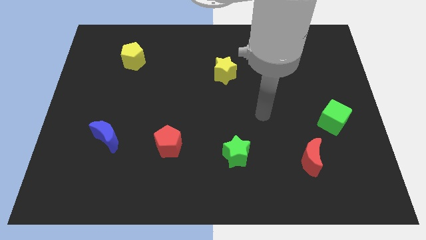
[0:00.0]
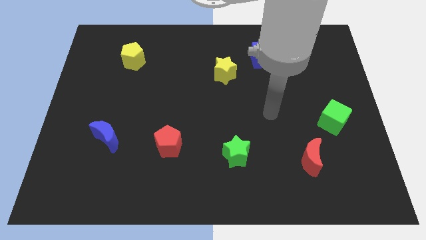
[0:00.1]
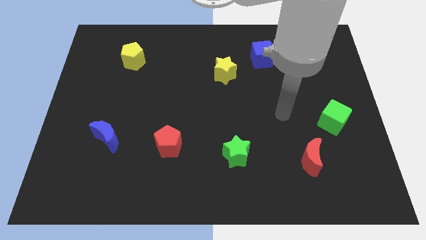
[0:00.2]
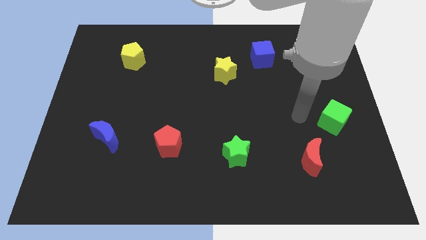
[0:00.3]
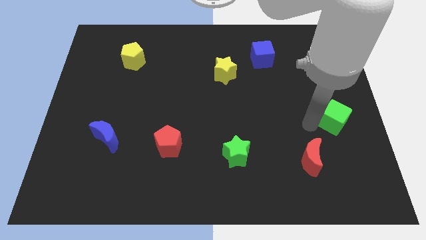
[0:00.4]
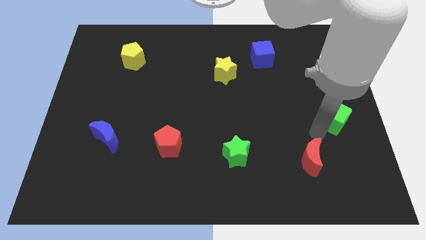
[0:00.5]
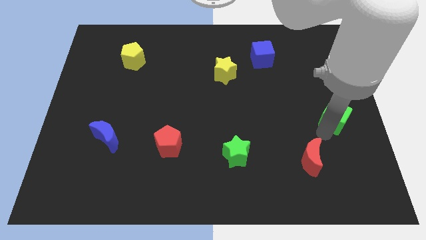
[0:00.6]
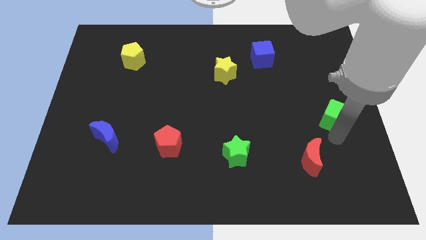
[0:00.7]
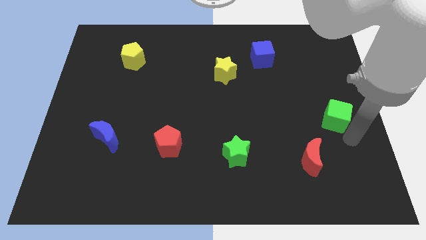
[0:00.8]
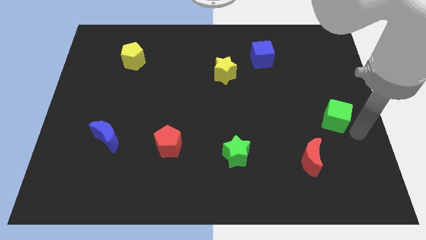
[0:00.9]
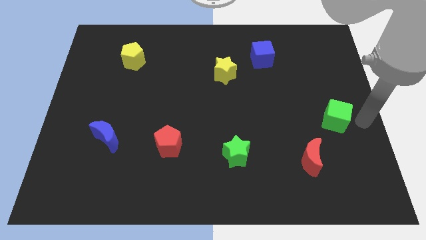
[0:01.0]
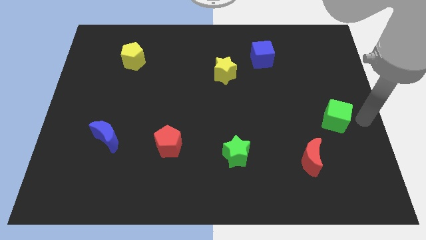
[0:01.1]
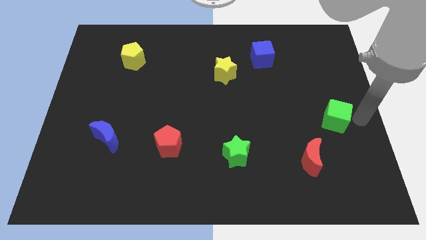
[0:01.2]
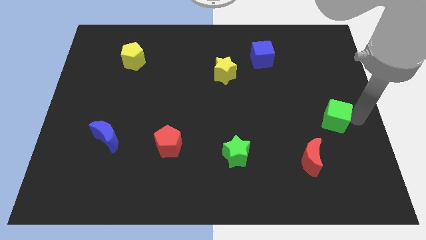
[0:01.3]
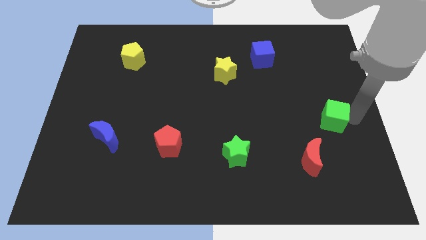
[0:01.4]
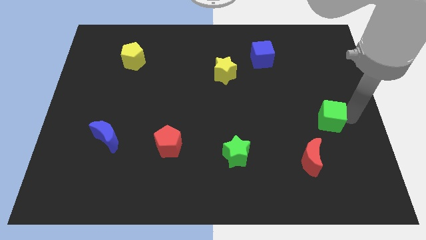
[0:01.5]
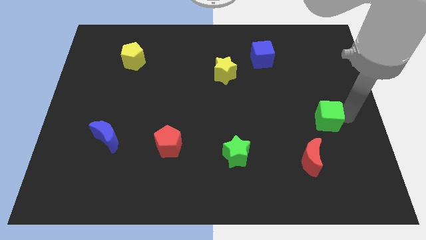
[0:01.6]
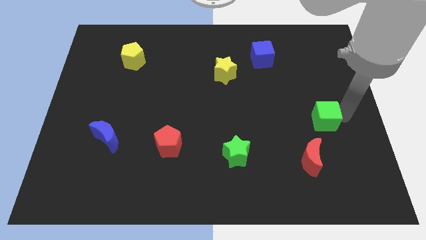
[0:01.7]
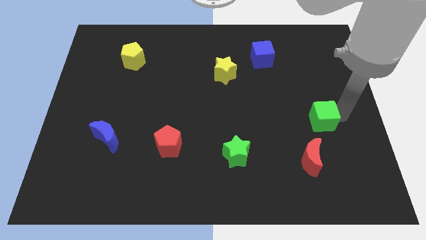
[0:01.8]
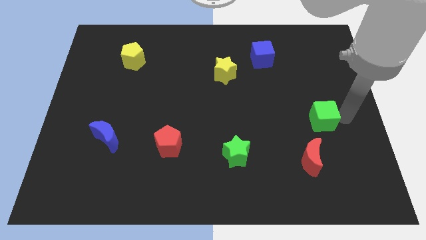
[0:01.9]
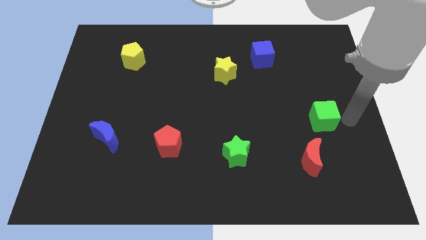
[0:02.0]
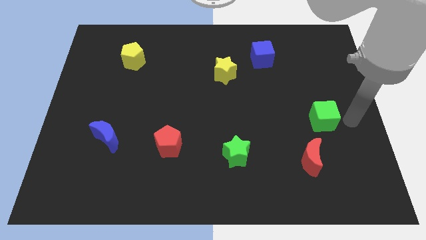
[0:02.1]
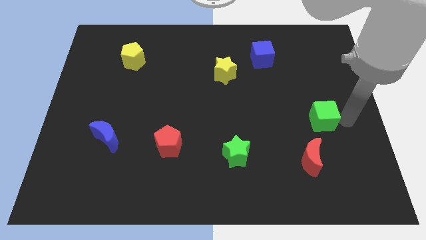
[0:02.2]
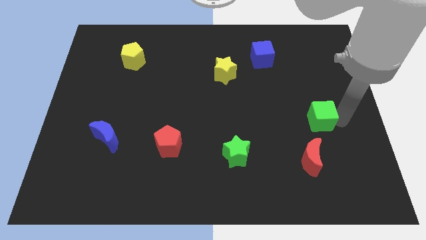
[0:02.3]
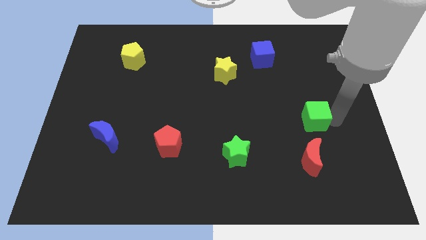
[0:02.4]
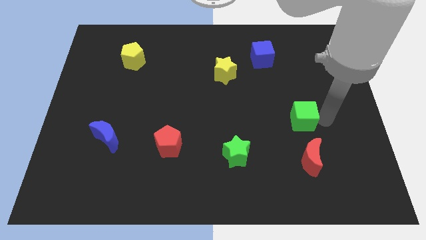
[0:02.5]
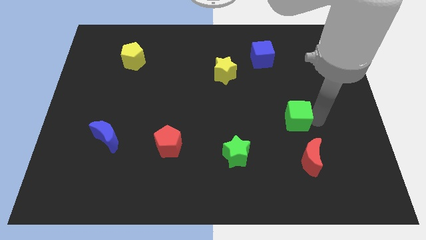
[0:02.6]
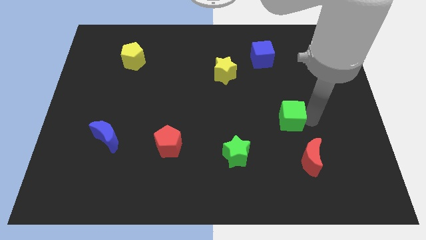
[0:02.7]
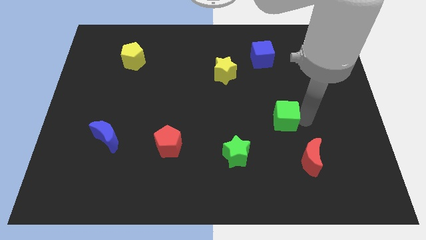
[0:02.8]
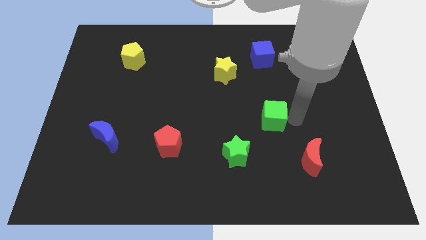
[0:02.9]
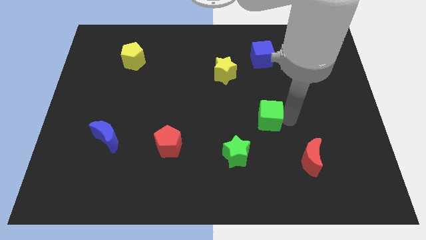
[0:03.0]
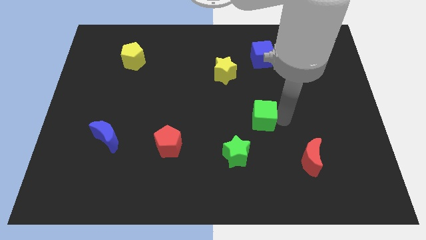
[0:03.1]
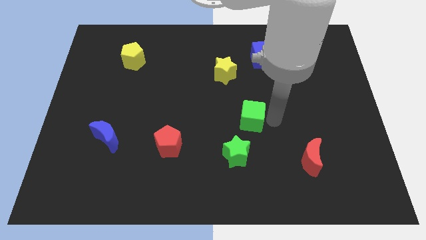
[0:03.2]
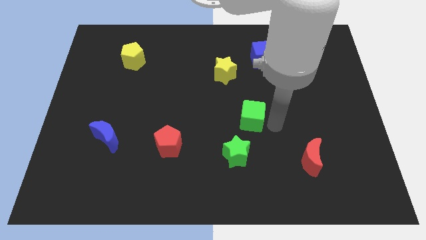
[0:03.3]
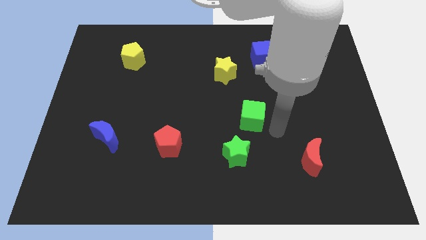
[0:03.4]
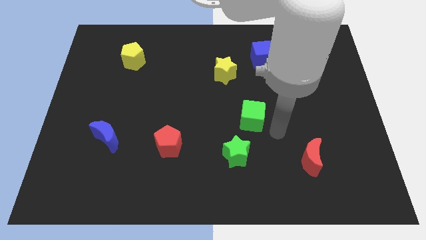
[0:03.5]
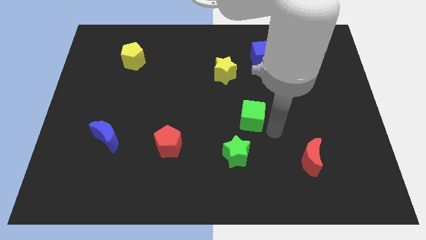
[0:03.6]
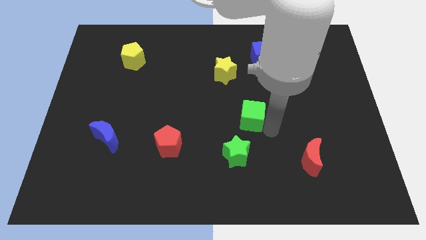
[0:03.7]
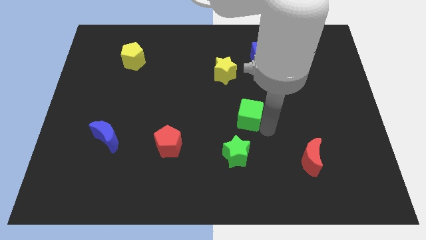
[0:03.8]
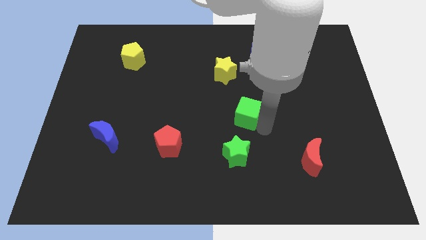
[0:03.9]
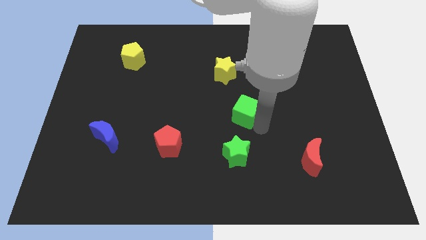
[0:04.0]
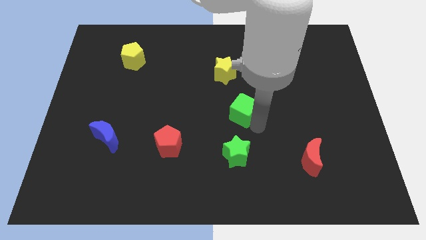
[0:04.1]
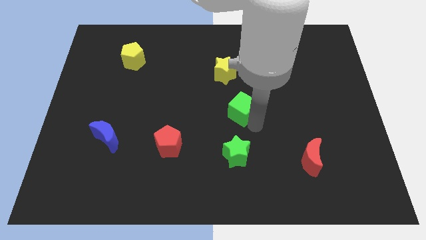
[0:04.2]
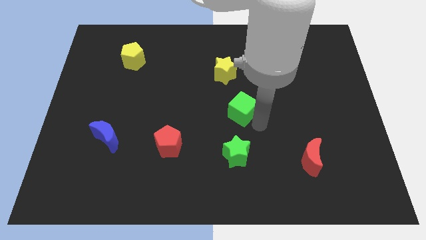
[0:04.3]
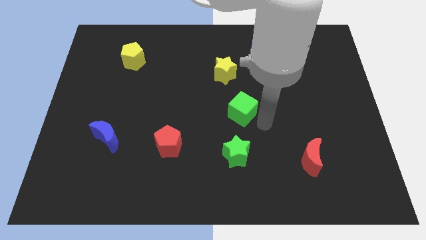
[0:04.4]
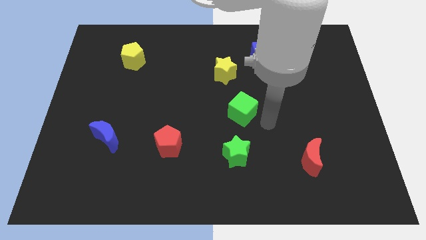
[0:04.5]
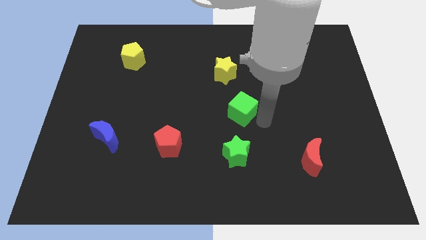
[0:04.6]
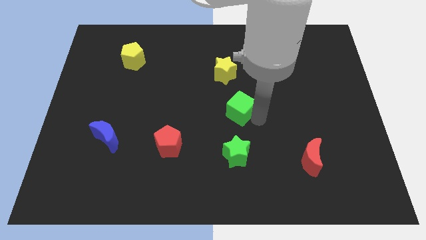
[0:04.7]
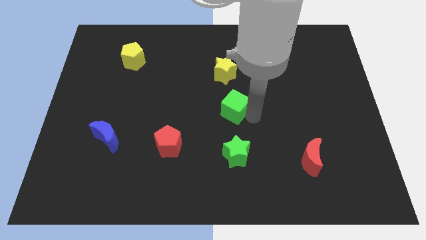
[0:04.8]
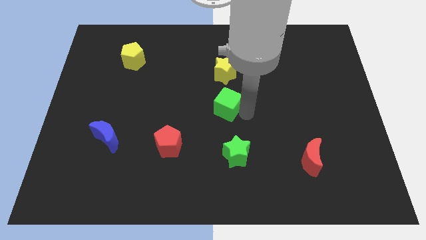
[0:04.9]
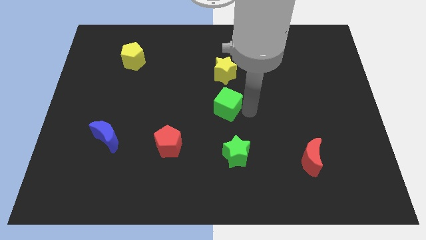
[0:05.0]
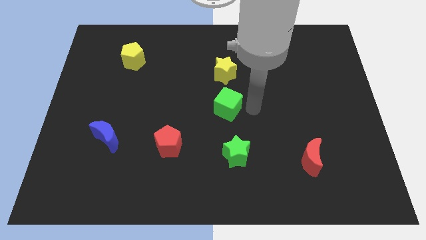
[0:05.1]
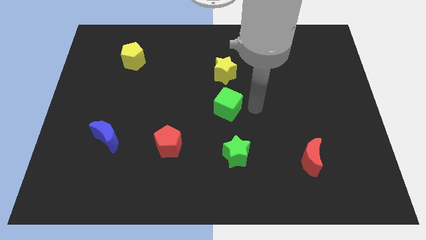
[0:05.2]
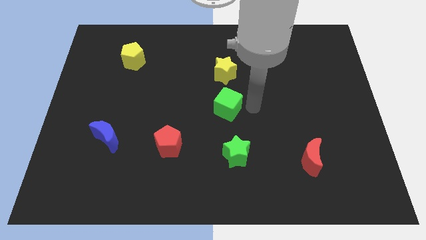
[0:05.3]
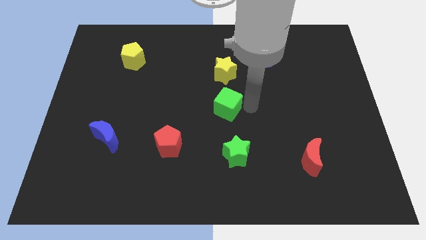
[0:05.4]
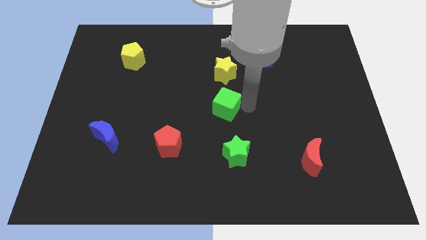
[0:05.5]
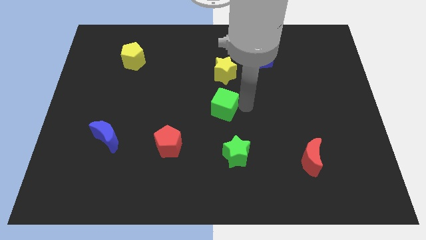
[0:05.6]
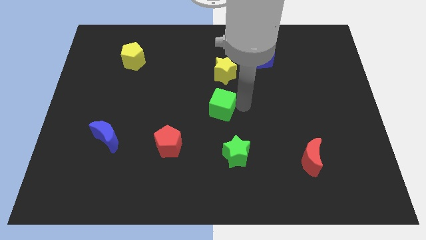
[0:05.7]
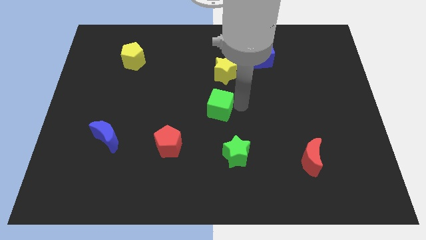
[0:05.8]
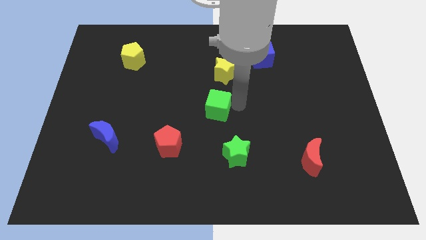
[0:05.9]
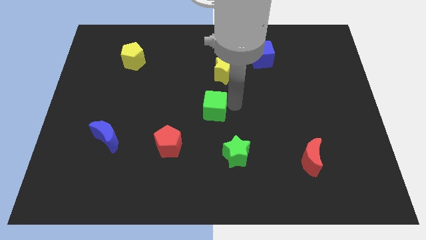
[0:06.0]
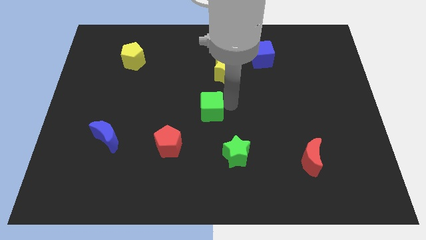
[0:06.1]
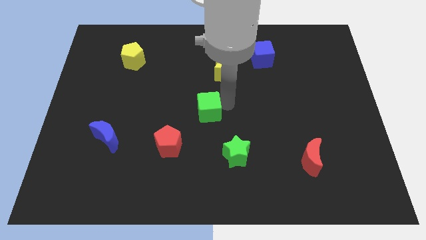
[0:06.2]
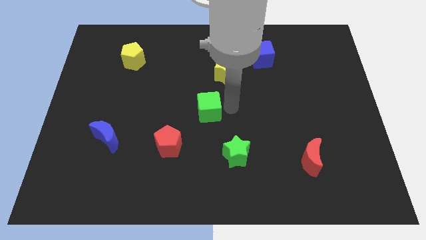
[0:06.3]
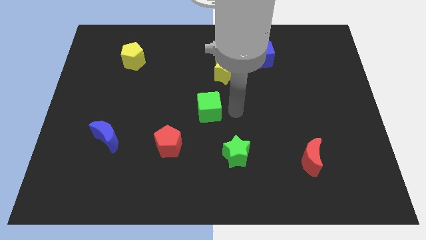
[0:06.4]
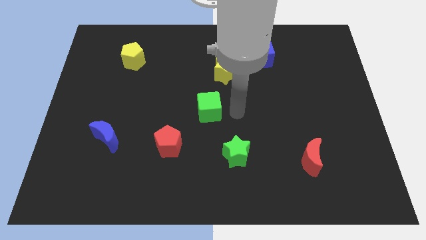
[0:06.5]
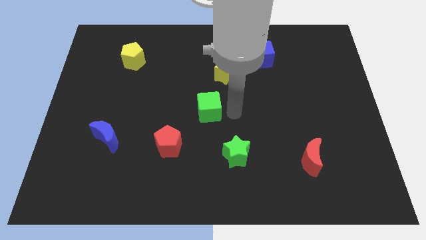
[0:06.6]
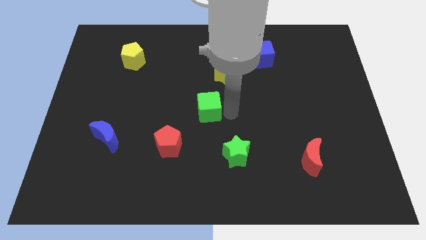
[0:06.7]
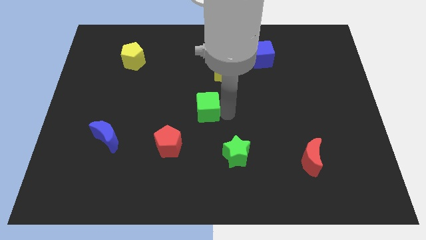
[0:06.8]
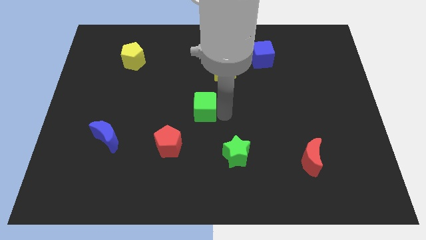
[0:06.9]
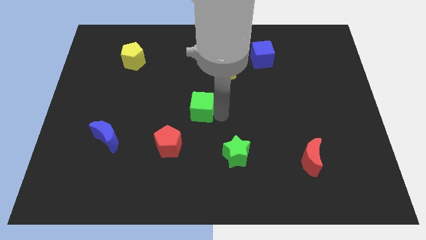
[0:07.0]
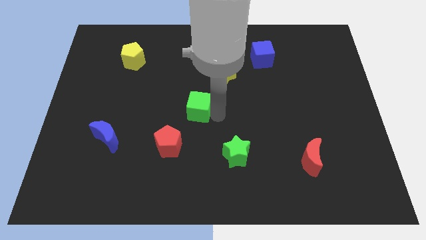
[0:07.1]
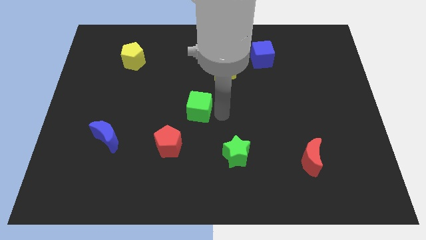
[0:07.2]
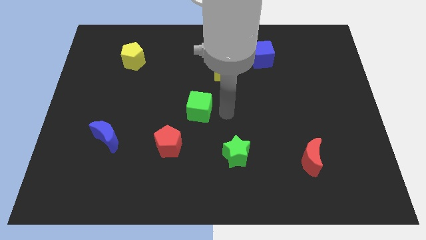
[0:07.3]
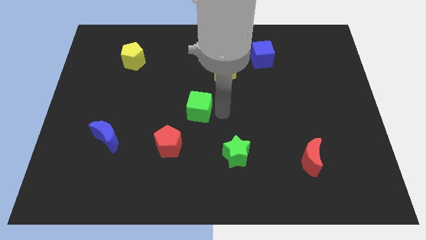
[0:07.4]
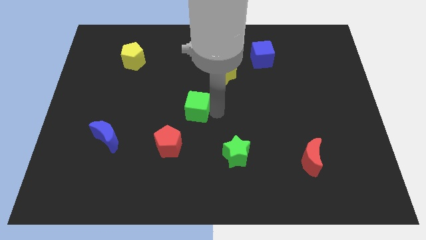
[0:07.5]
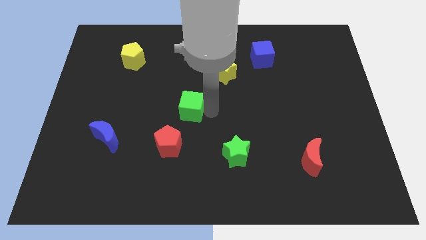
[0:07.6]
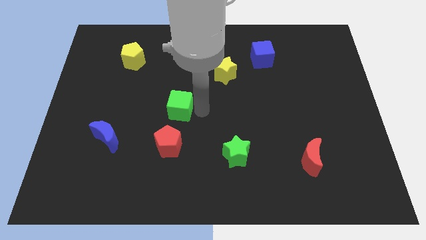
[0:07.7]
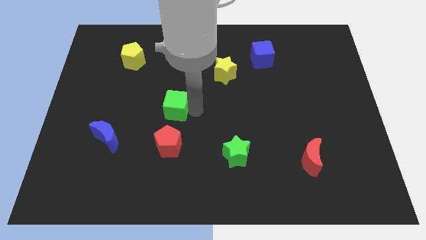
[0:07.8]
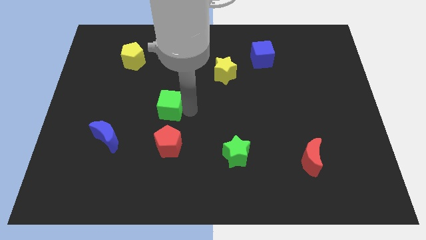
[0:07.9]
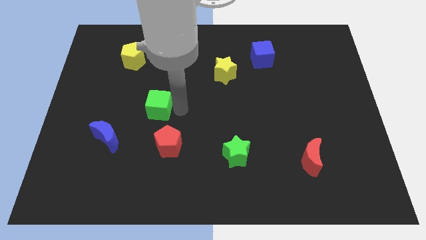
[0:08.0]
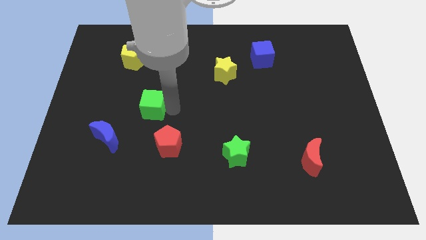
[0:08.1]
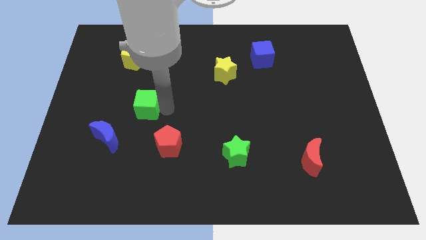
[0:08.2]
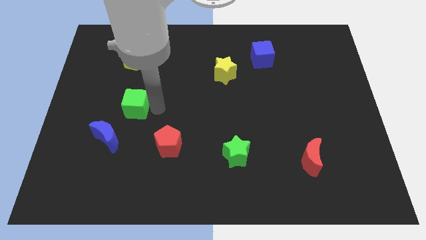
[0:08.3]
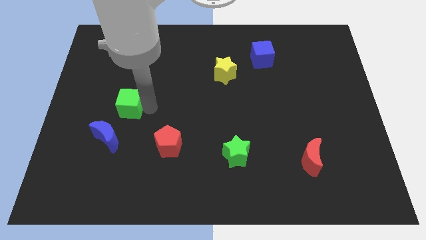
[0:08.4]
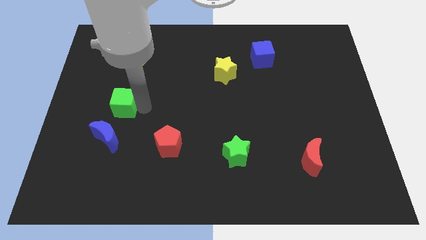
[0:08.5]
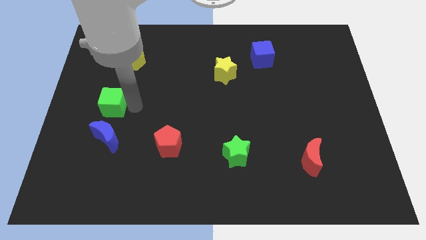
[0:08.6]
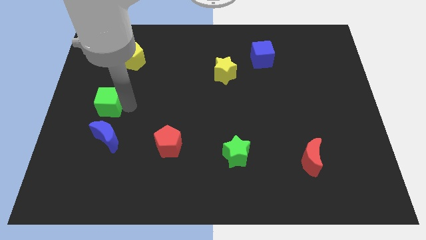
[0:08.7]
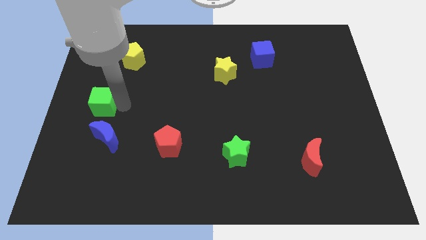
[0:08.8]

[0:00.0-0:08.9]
move the green cube to the left side
